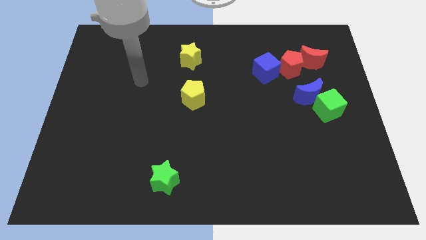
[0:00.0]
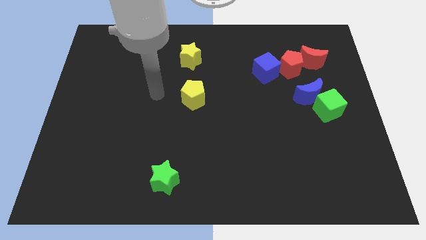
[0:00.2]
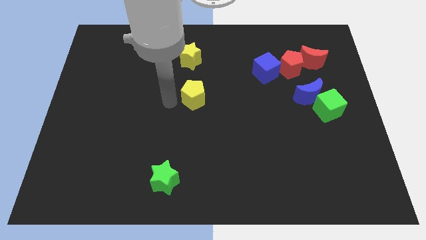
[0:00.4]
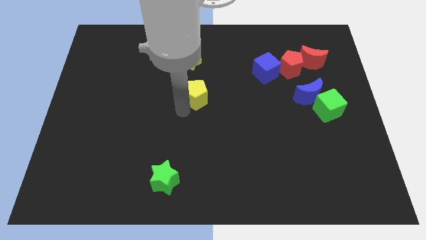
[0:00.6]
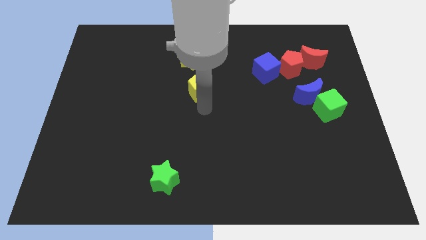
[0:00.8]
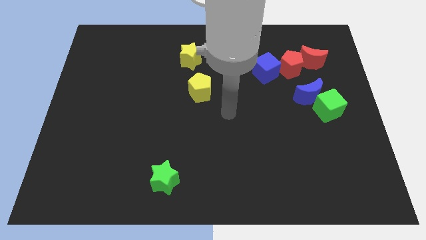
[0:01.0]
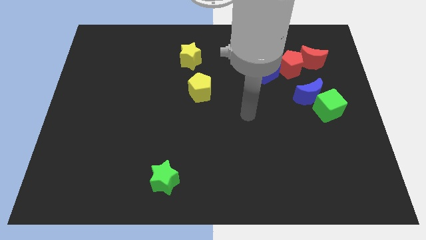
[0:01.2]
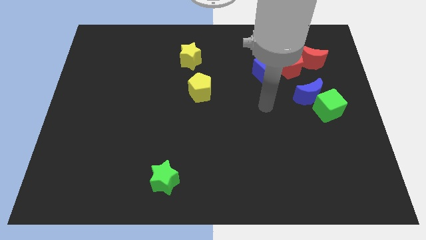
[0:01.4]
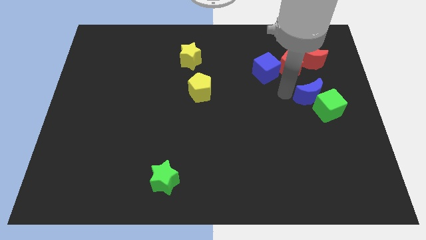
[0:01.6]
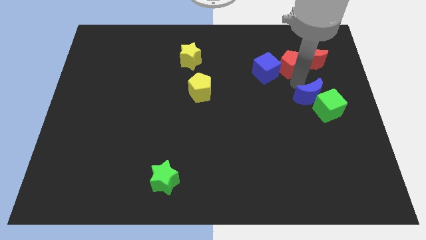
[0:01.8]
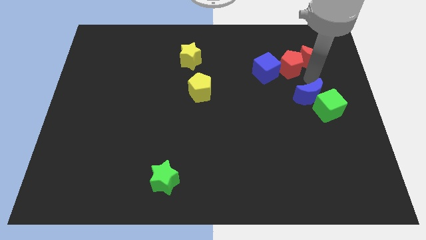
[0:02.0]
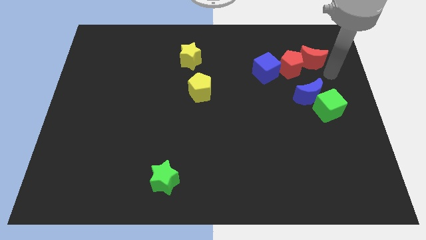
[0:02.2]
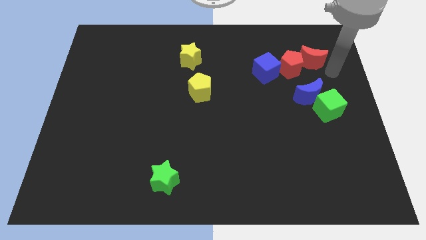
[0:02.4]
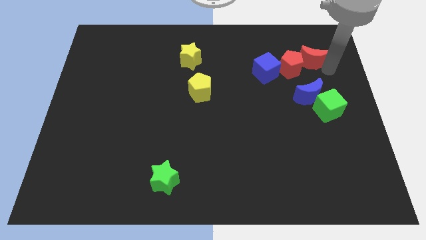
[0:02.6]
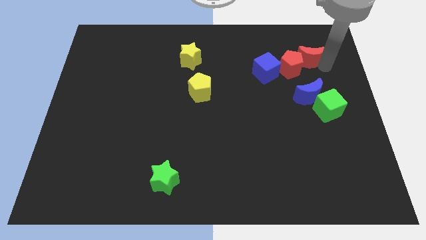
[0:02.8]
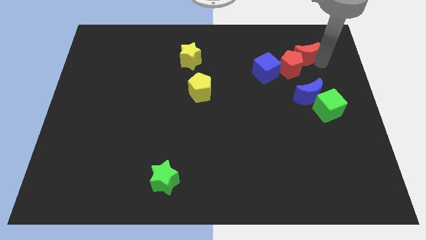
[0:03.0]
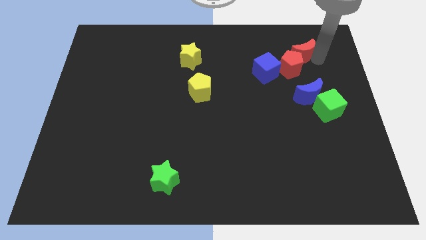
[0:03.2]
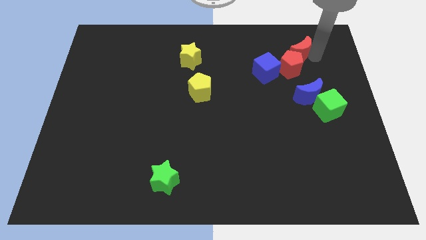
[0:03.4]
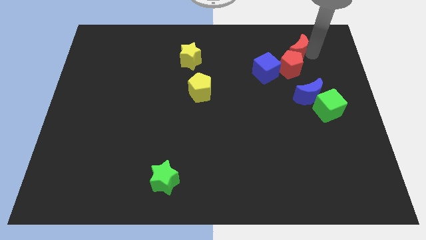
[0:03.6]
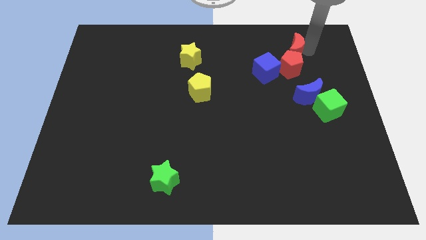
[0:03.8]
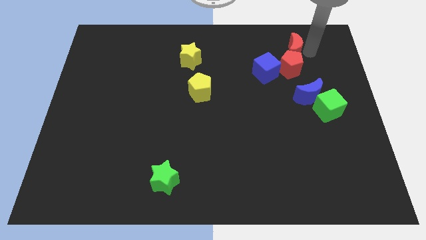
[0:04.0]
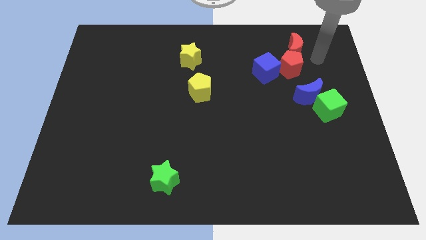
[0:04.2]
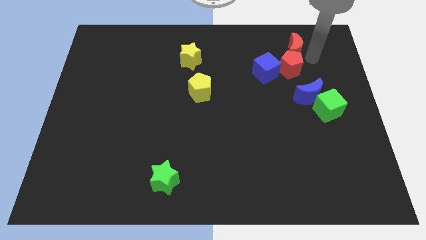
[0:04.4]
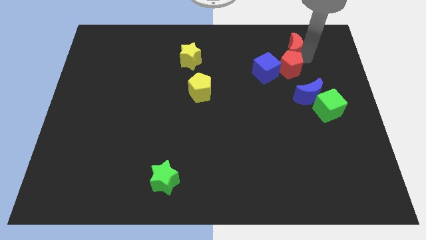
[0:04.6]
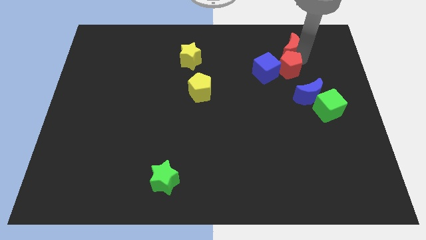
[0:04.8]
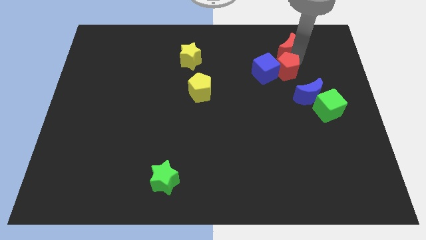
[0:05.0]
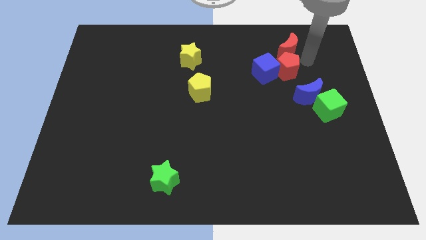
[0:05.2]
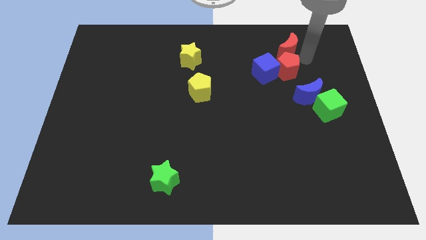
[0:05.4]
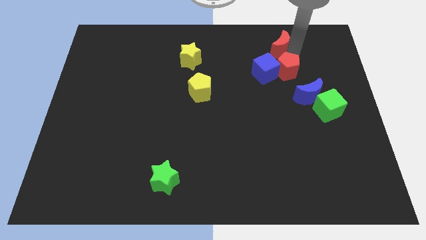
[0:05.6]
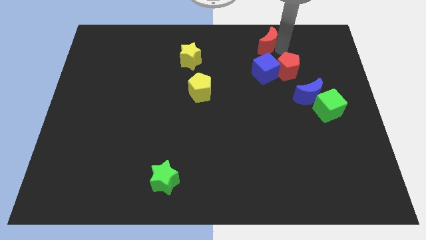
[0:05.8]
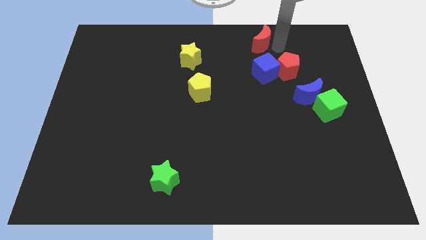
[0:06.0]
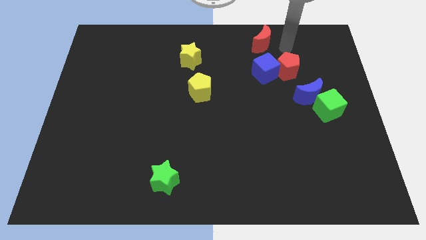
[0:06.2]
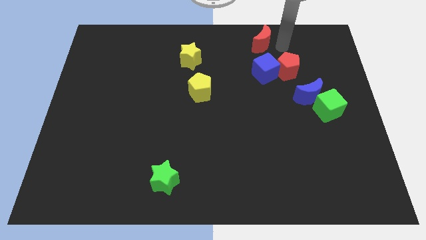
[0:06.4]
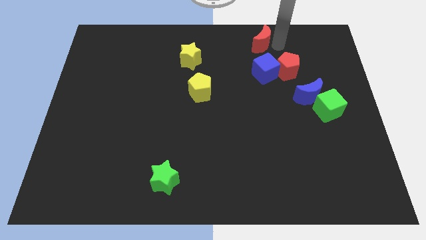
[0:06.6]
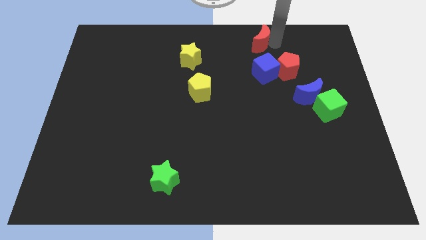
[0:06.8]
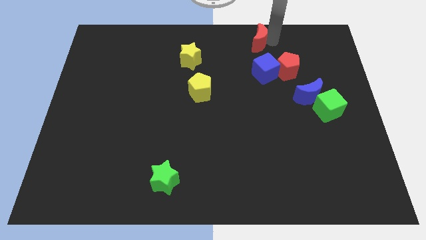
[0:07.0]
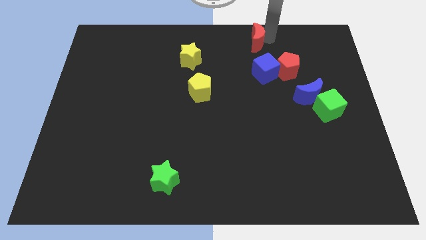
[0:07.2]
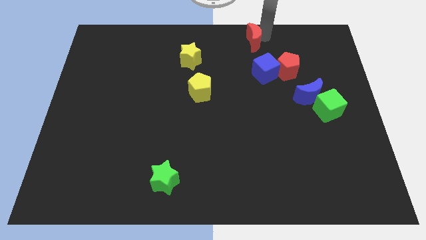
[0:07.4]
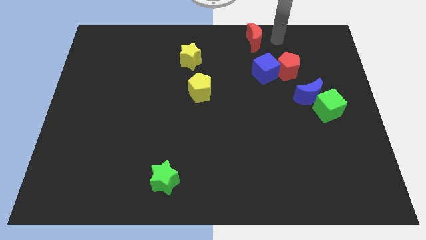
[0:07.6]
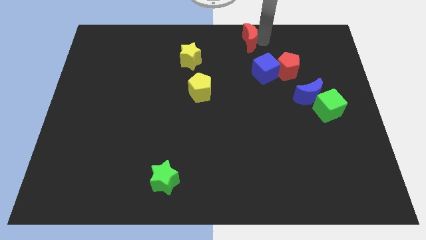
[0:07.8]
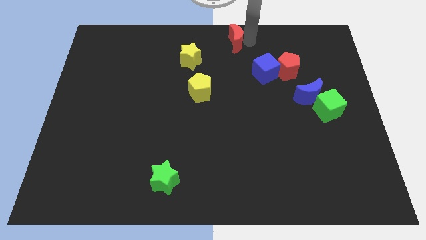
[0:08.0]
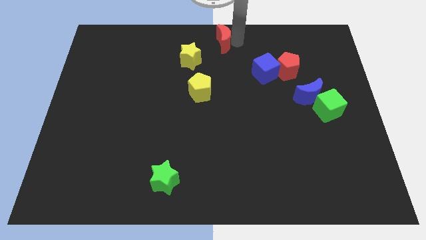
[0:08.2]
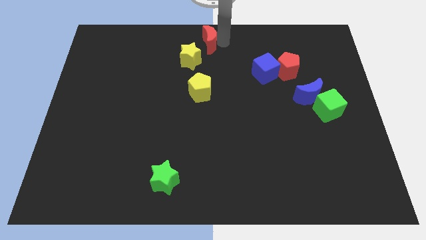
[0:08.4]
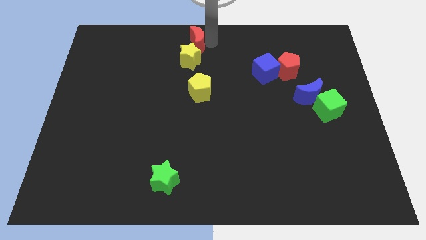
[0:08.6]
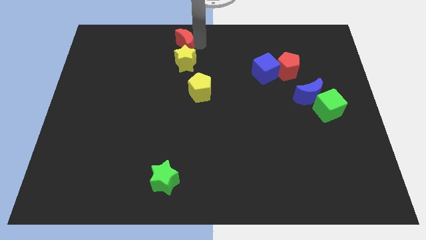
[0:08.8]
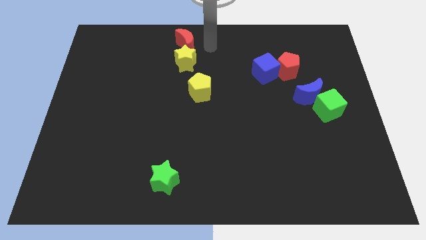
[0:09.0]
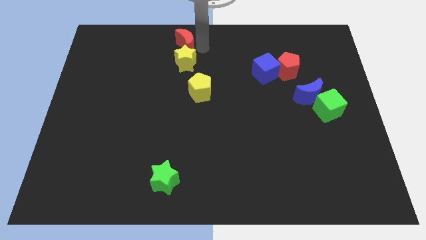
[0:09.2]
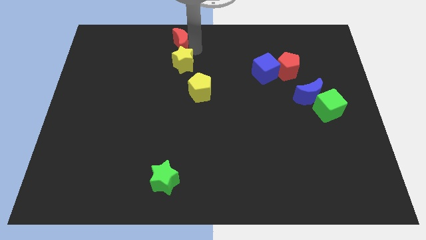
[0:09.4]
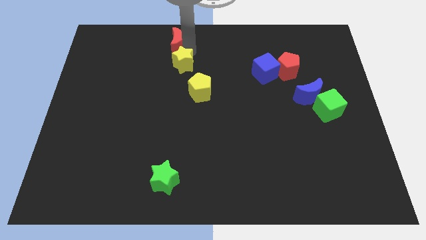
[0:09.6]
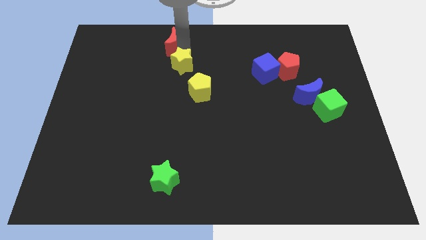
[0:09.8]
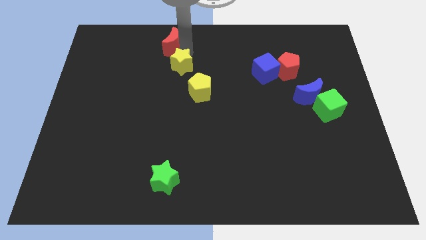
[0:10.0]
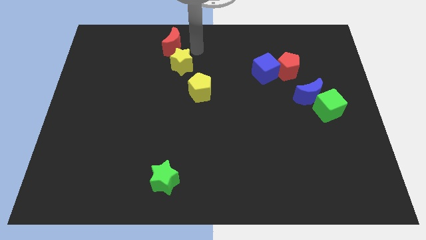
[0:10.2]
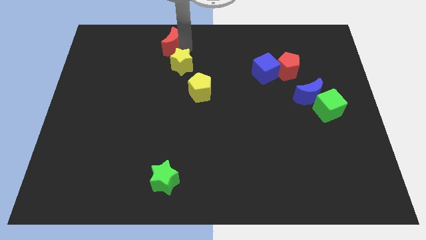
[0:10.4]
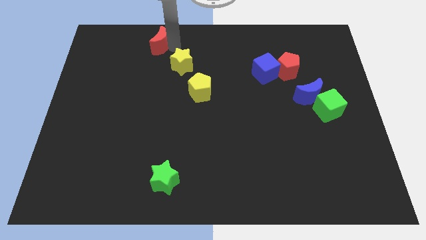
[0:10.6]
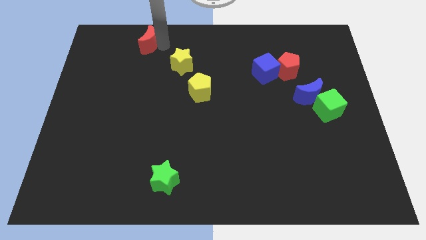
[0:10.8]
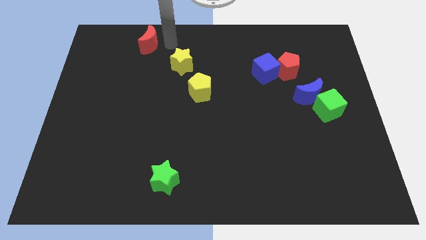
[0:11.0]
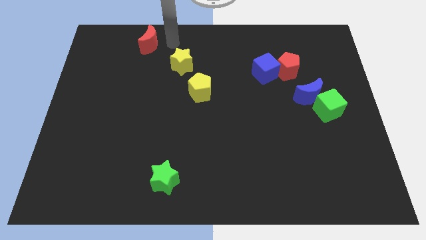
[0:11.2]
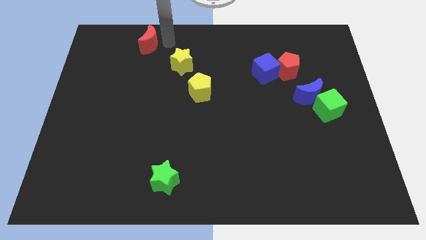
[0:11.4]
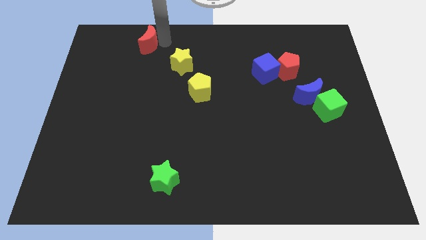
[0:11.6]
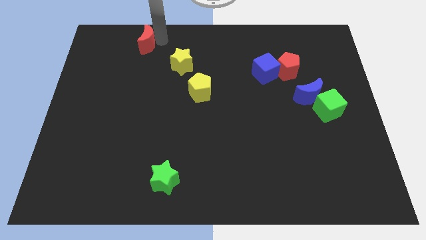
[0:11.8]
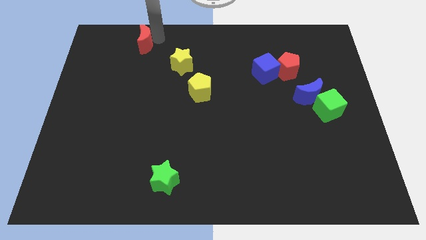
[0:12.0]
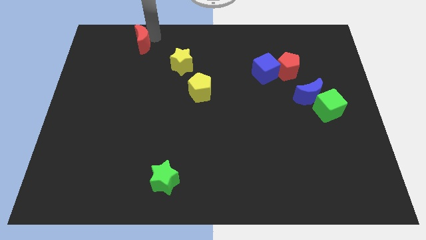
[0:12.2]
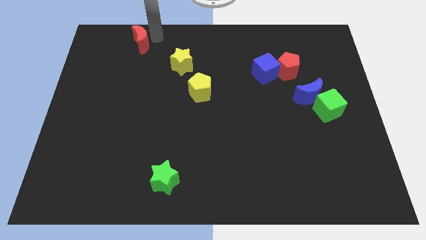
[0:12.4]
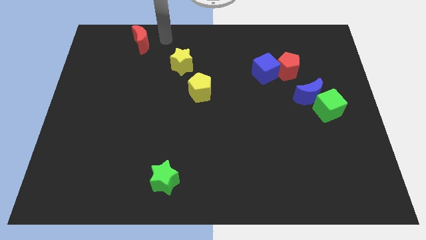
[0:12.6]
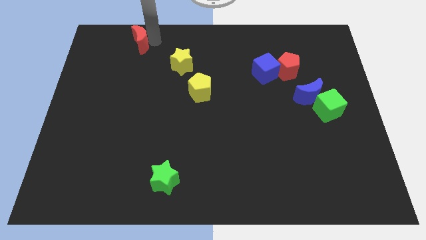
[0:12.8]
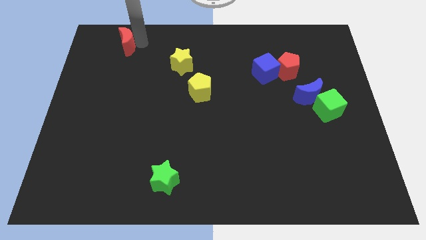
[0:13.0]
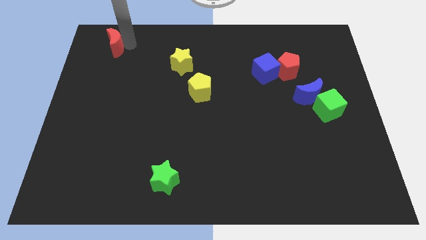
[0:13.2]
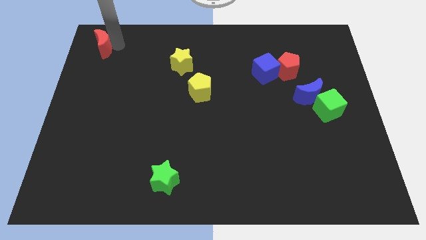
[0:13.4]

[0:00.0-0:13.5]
push the red moon to the top left corner
